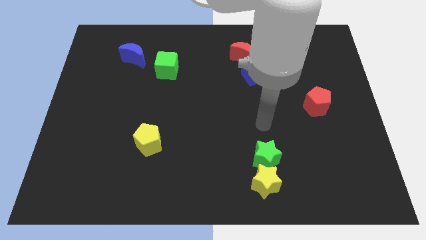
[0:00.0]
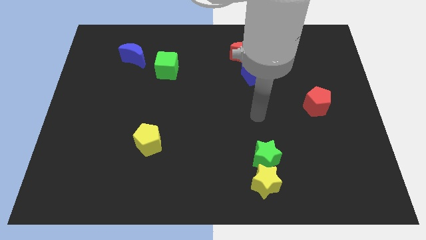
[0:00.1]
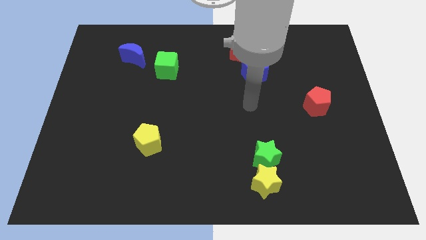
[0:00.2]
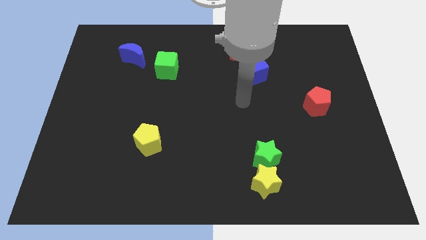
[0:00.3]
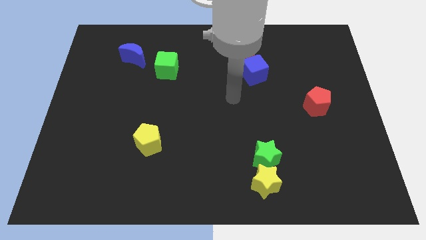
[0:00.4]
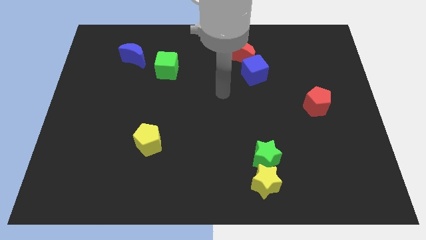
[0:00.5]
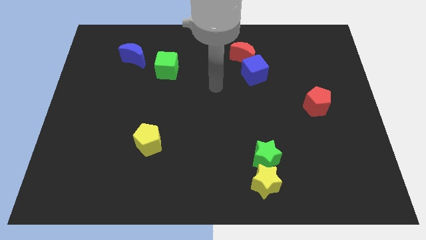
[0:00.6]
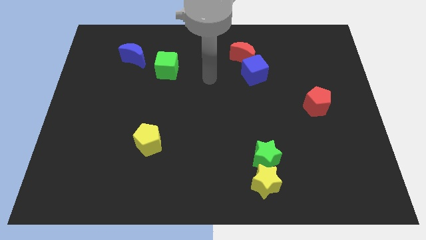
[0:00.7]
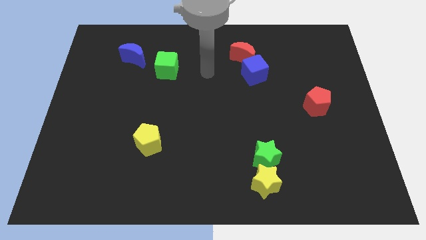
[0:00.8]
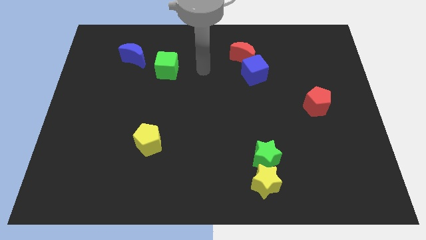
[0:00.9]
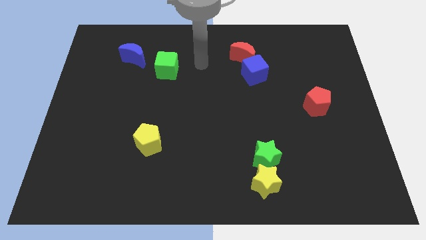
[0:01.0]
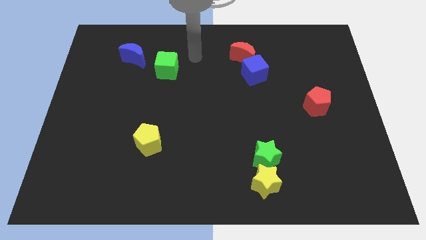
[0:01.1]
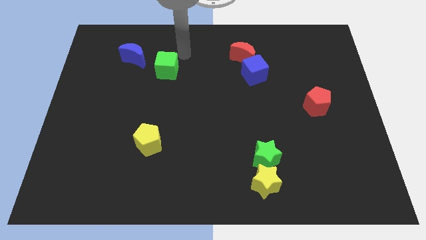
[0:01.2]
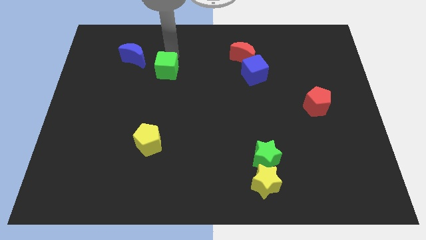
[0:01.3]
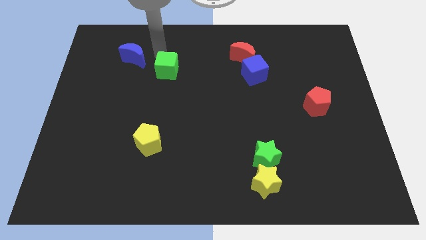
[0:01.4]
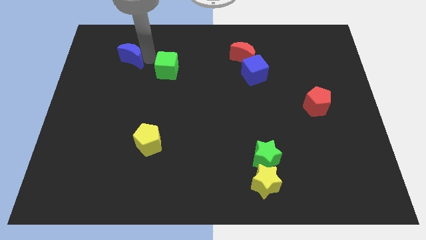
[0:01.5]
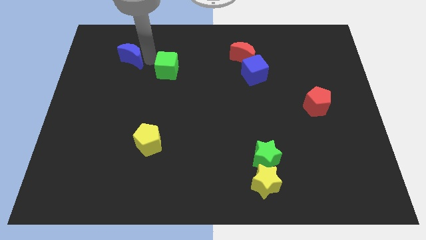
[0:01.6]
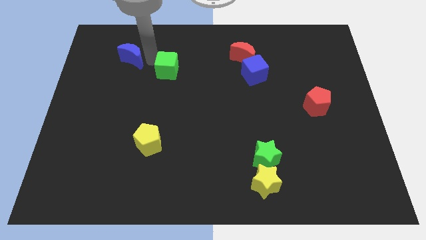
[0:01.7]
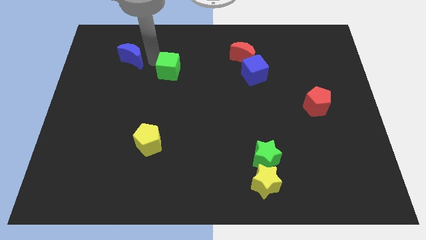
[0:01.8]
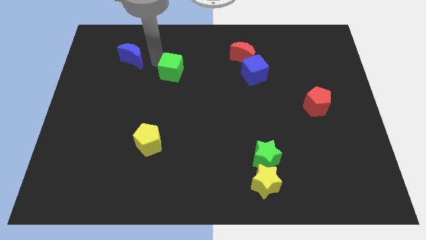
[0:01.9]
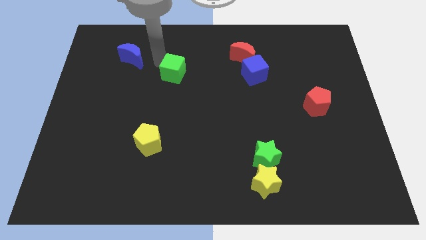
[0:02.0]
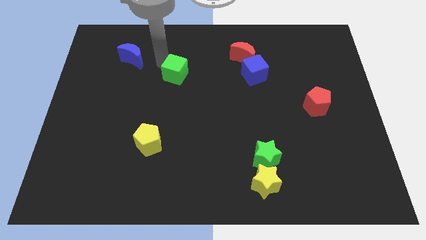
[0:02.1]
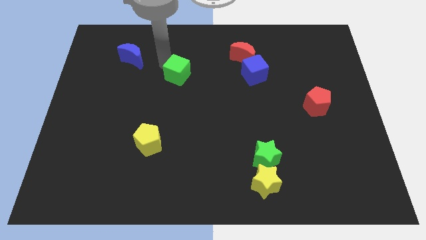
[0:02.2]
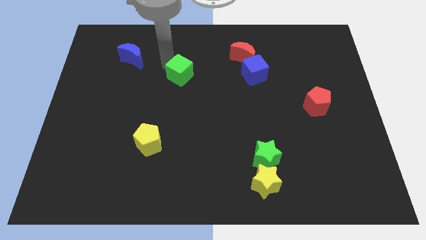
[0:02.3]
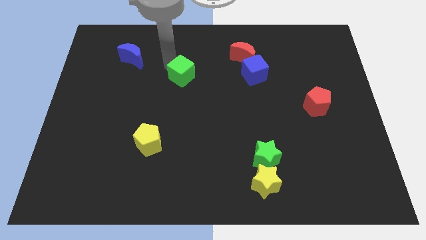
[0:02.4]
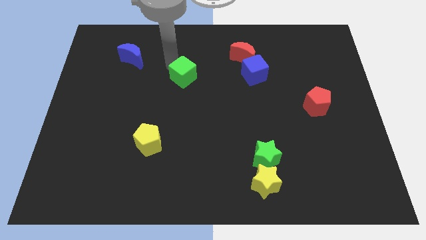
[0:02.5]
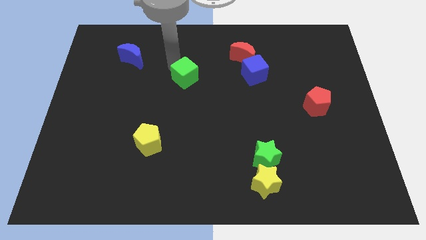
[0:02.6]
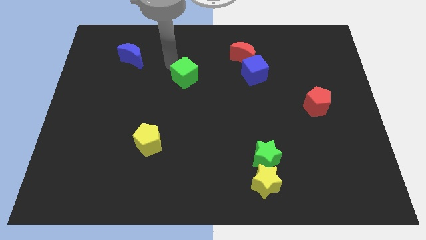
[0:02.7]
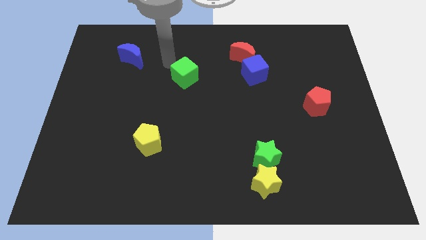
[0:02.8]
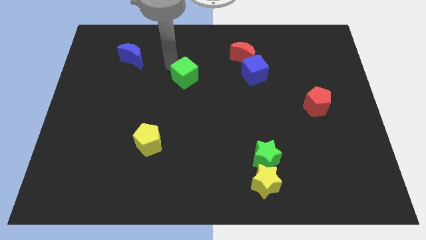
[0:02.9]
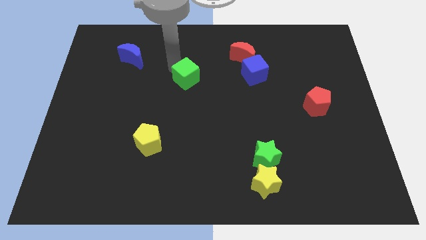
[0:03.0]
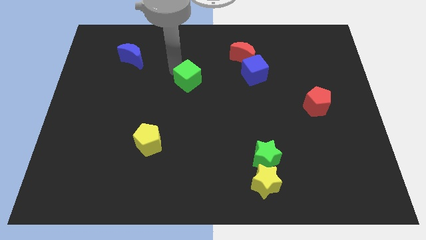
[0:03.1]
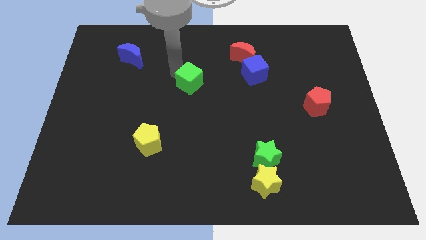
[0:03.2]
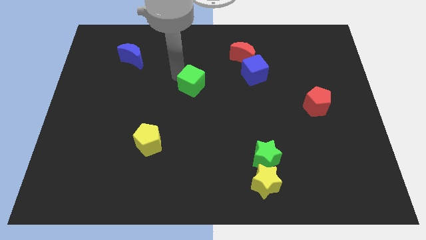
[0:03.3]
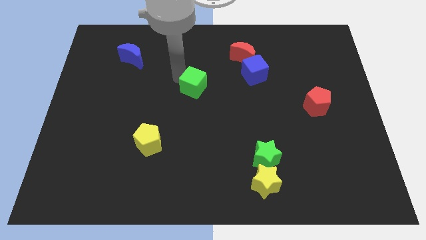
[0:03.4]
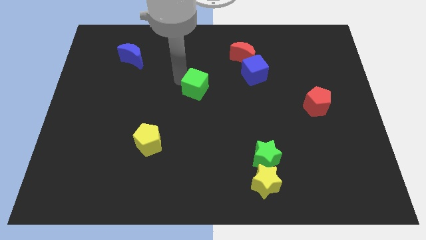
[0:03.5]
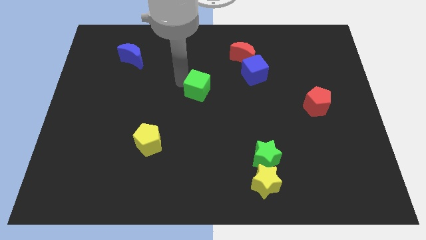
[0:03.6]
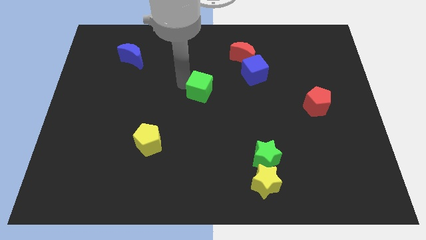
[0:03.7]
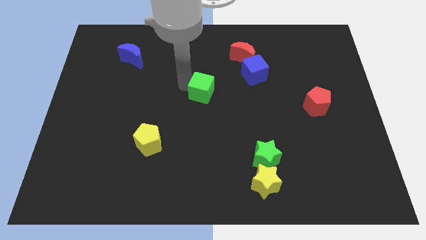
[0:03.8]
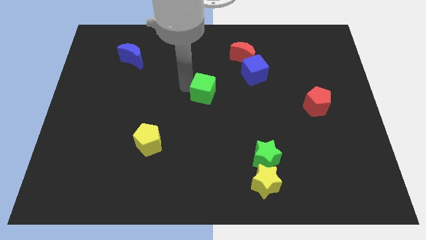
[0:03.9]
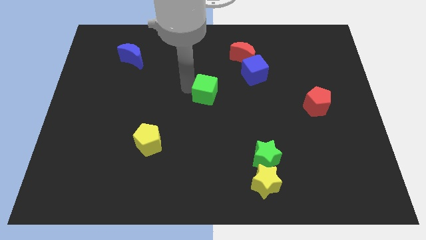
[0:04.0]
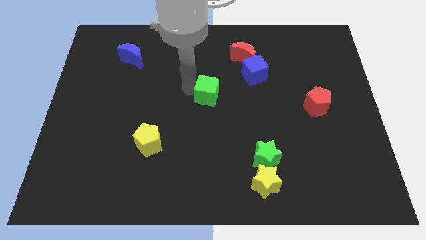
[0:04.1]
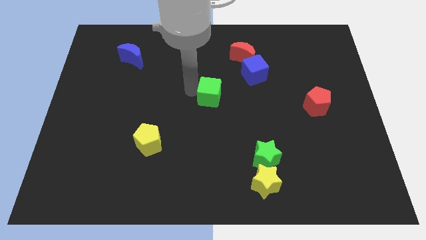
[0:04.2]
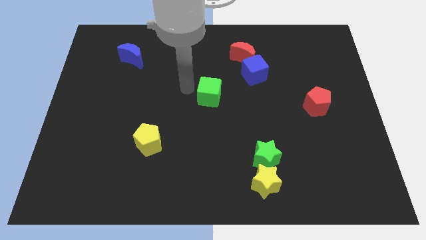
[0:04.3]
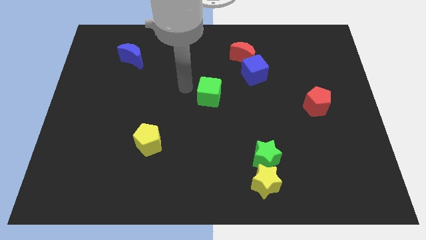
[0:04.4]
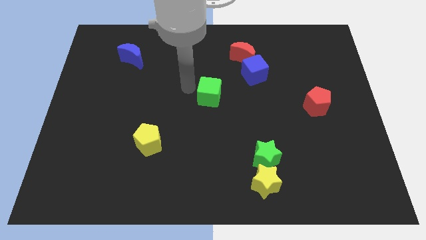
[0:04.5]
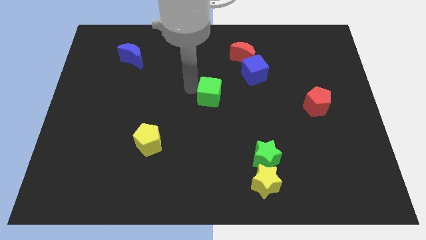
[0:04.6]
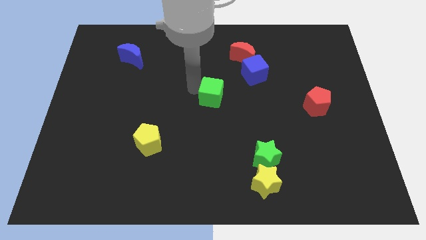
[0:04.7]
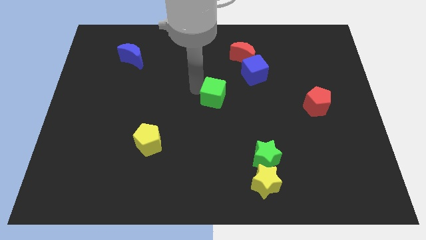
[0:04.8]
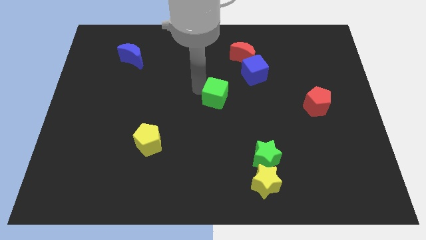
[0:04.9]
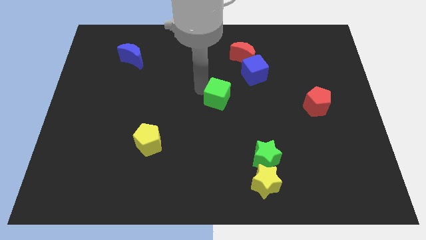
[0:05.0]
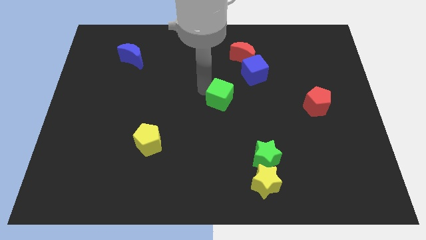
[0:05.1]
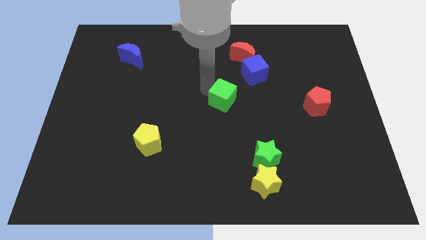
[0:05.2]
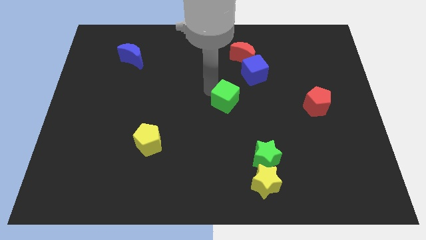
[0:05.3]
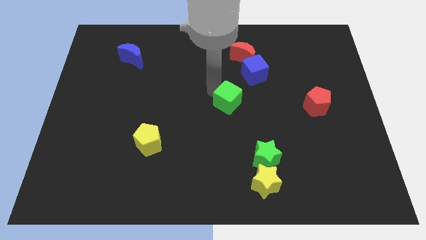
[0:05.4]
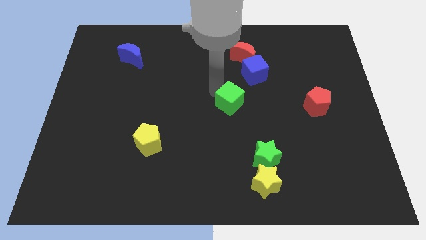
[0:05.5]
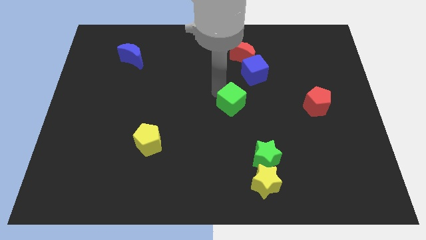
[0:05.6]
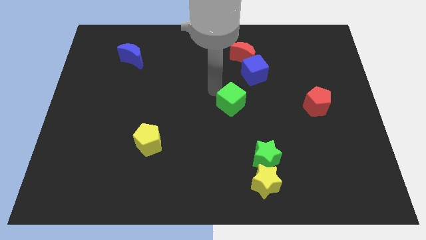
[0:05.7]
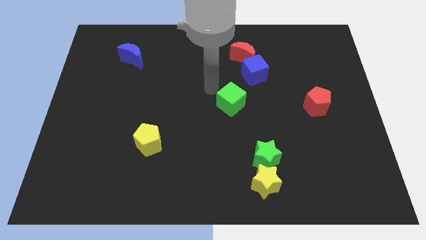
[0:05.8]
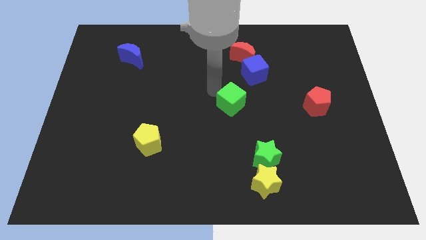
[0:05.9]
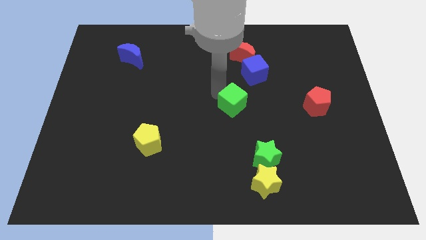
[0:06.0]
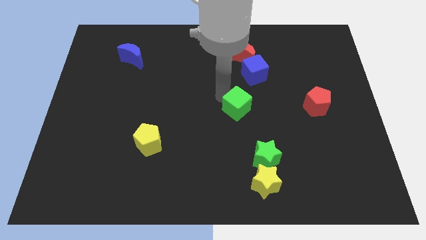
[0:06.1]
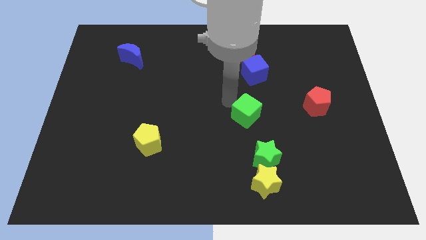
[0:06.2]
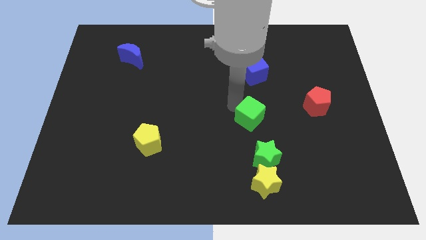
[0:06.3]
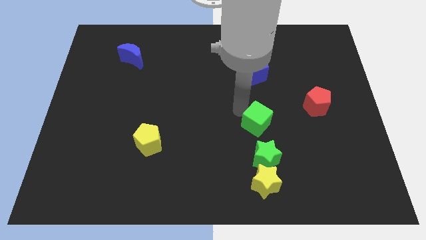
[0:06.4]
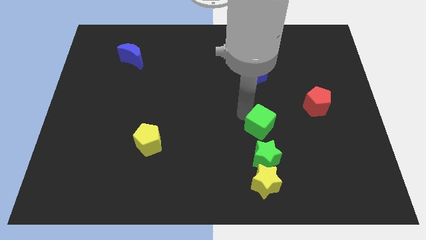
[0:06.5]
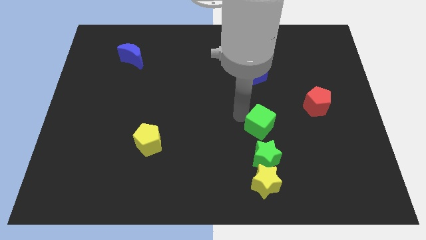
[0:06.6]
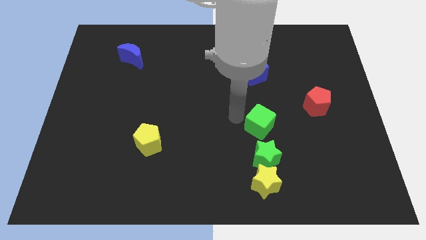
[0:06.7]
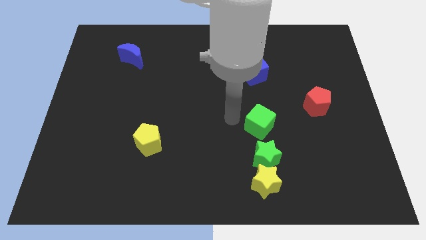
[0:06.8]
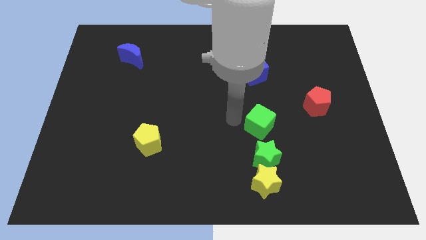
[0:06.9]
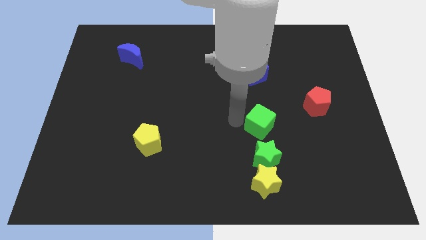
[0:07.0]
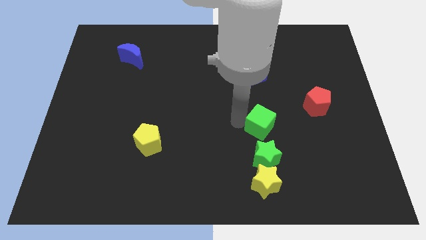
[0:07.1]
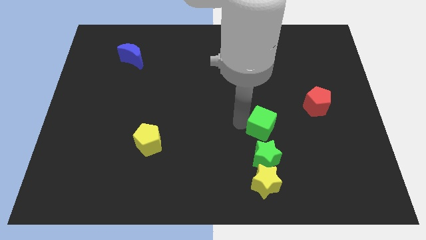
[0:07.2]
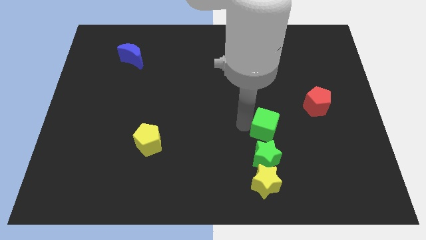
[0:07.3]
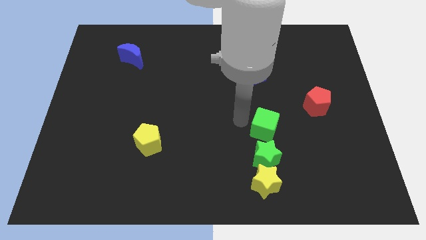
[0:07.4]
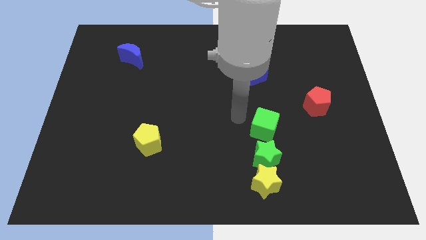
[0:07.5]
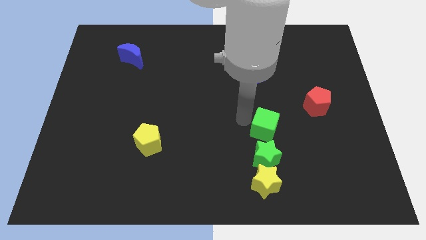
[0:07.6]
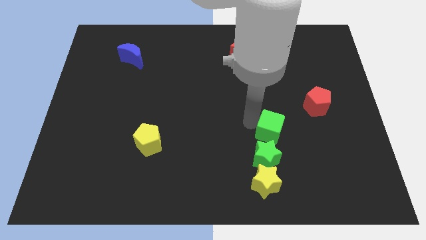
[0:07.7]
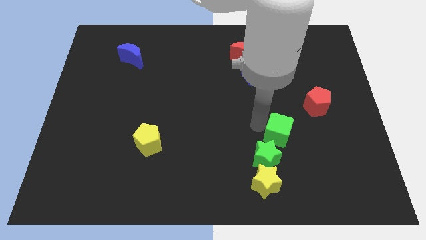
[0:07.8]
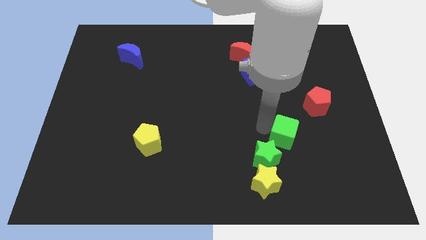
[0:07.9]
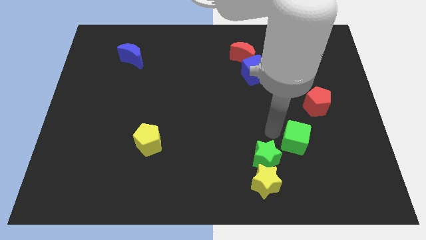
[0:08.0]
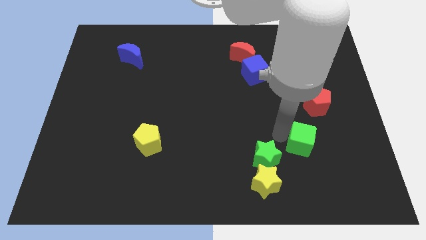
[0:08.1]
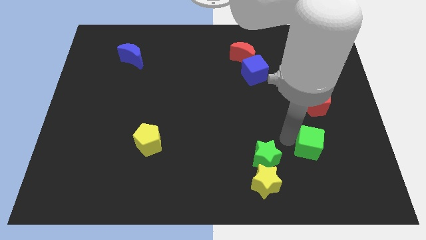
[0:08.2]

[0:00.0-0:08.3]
slide the green cube to the bottom of the red pentagon
